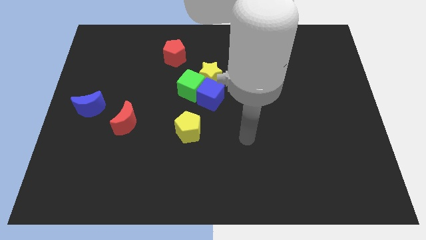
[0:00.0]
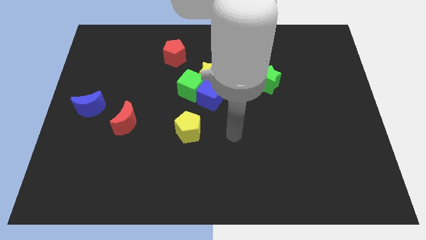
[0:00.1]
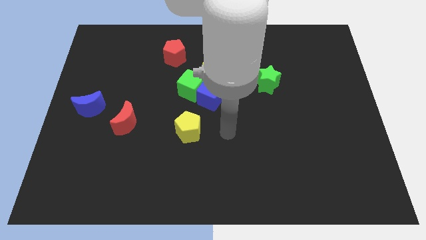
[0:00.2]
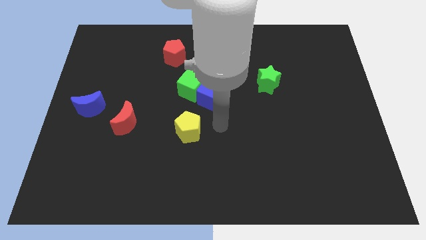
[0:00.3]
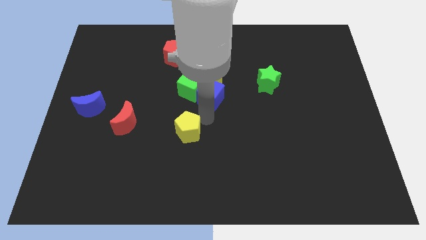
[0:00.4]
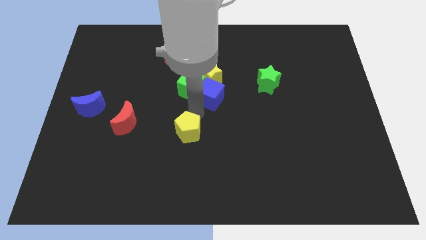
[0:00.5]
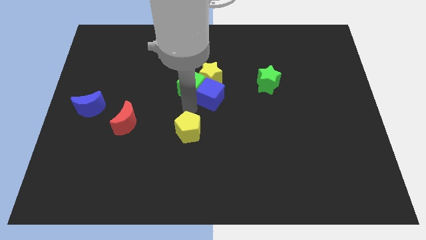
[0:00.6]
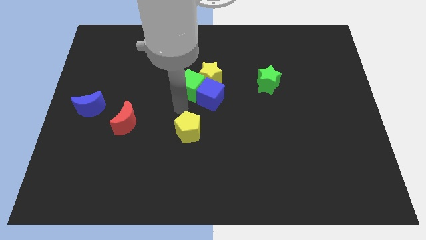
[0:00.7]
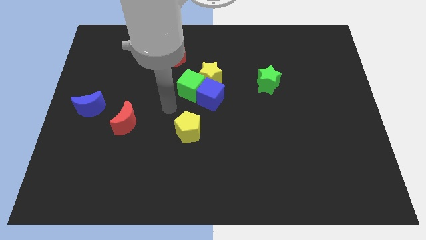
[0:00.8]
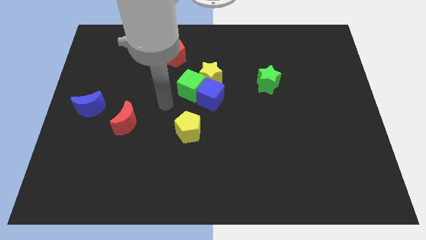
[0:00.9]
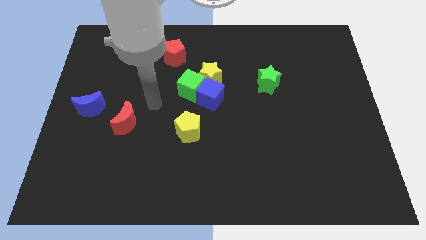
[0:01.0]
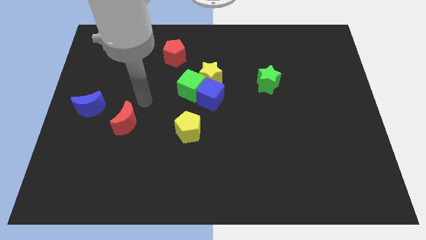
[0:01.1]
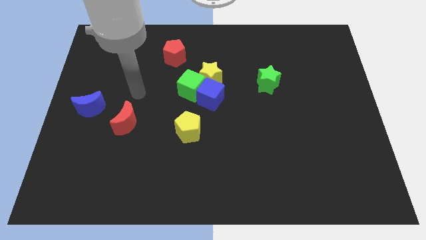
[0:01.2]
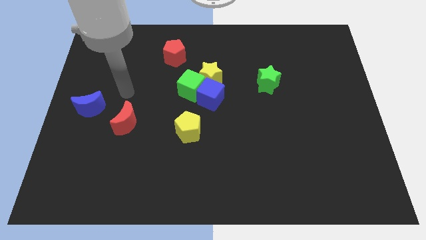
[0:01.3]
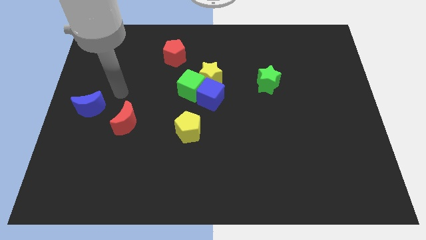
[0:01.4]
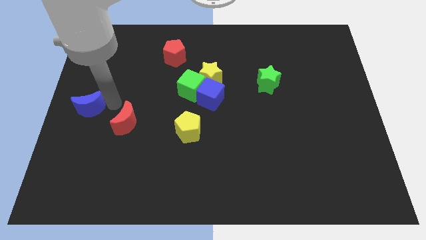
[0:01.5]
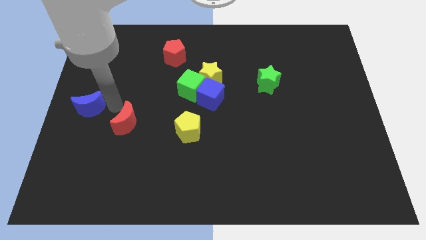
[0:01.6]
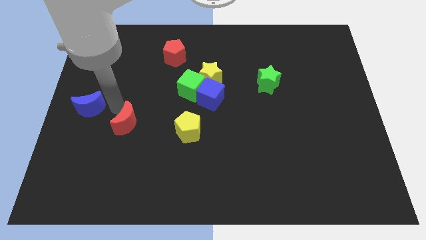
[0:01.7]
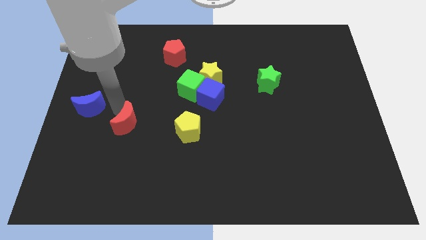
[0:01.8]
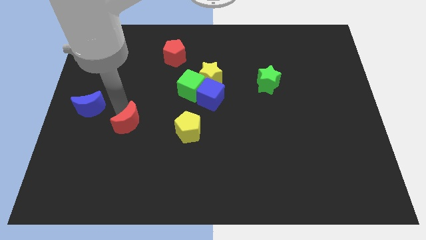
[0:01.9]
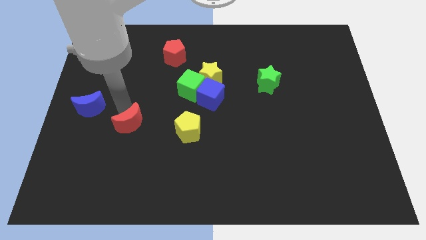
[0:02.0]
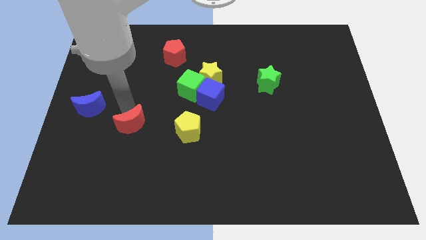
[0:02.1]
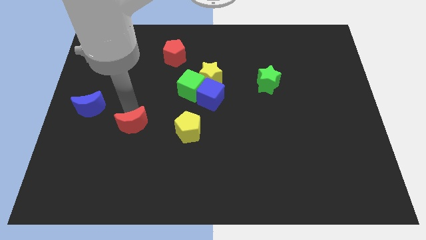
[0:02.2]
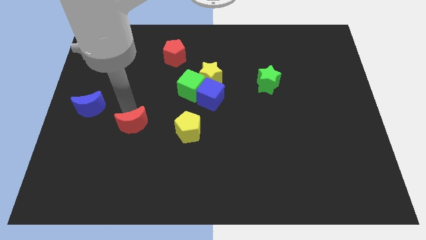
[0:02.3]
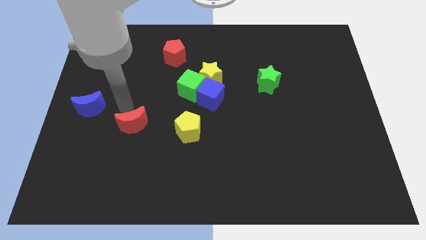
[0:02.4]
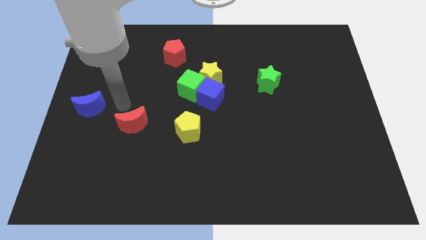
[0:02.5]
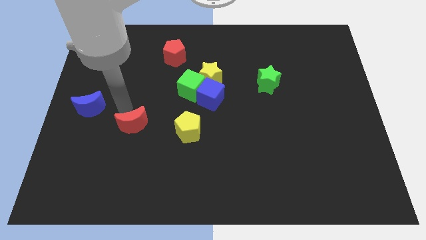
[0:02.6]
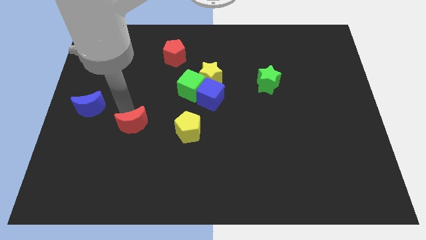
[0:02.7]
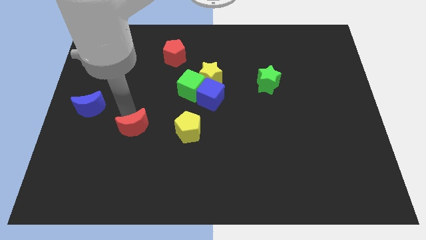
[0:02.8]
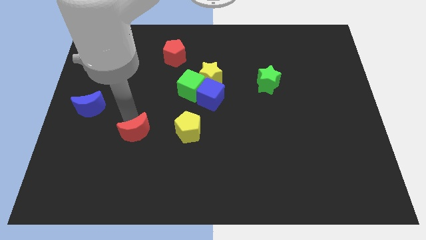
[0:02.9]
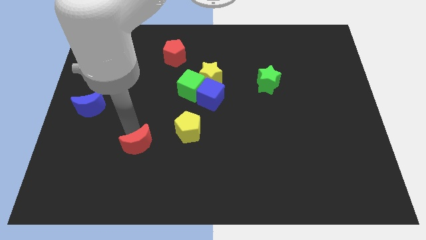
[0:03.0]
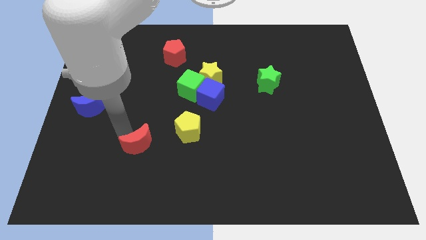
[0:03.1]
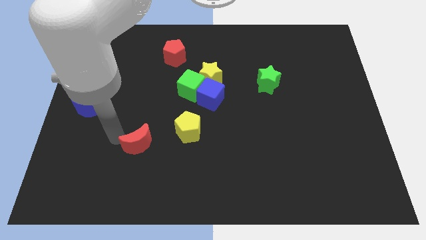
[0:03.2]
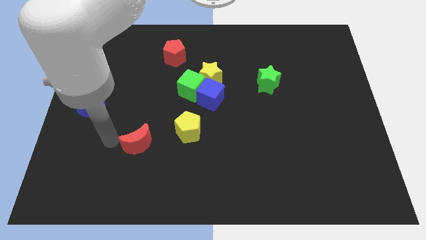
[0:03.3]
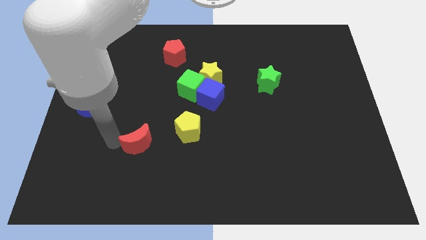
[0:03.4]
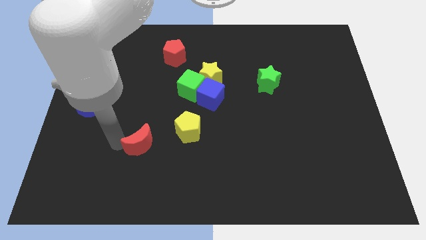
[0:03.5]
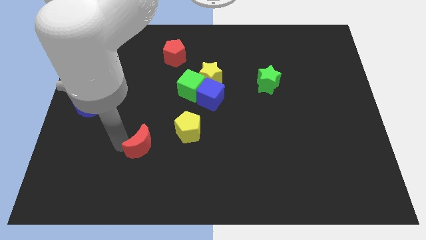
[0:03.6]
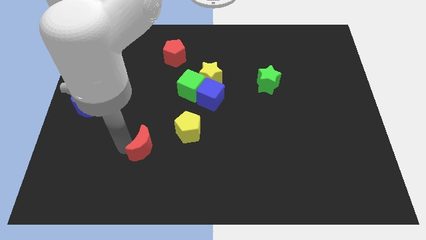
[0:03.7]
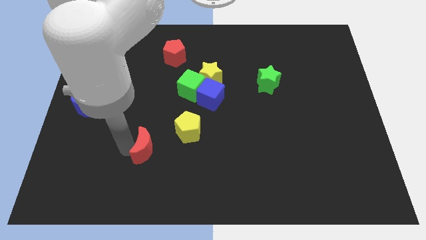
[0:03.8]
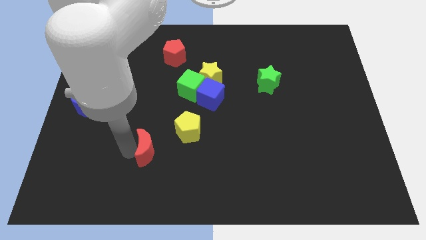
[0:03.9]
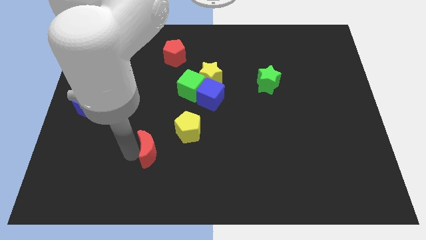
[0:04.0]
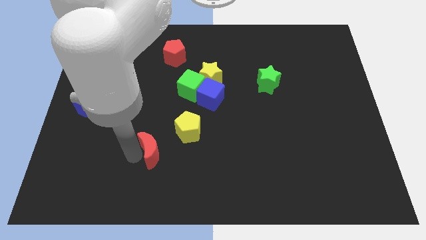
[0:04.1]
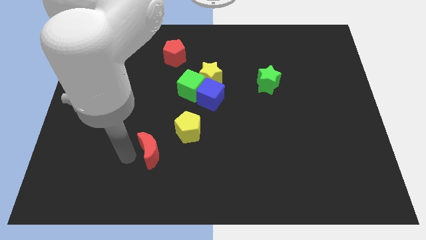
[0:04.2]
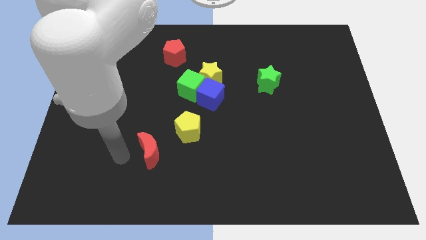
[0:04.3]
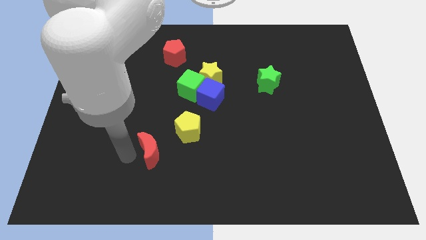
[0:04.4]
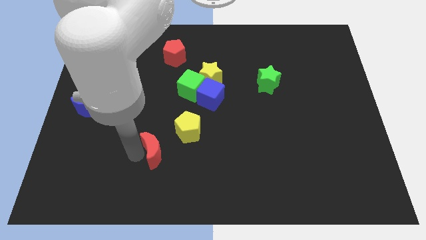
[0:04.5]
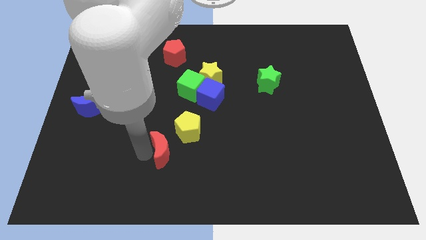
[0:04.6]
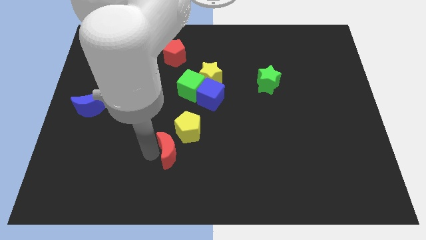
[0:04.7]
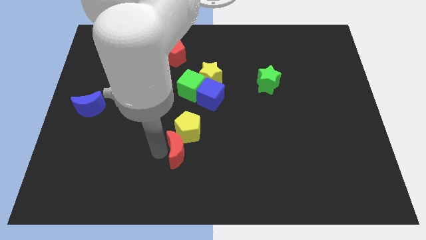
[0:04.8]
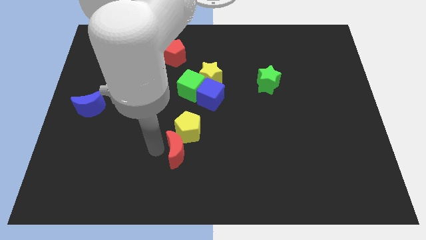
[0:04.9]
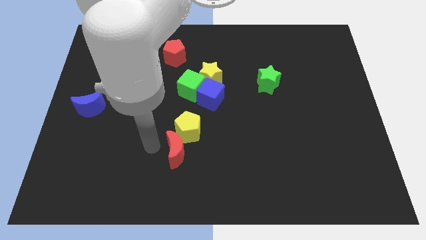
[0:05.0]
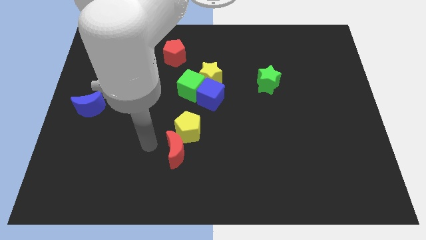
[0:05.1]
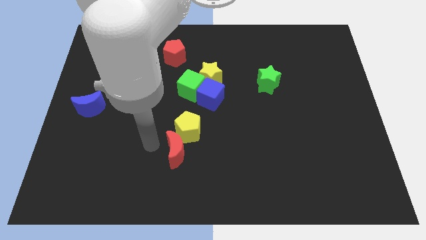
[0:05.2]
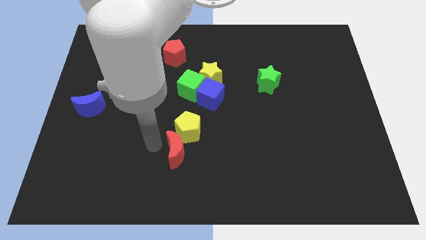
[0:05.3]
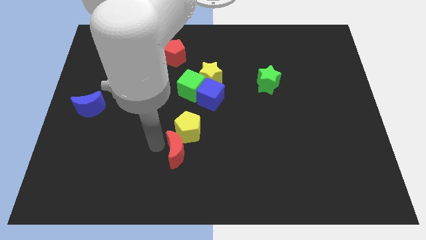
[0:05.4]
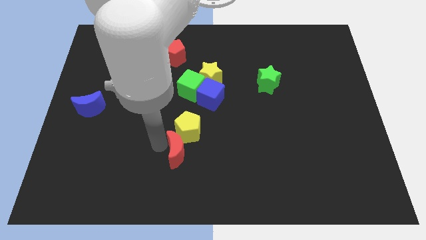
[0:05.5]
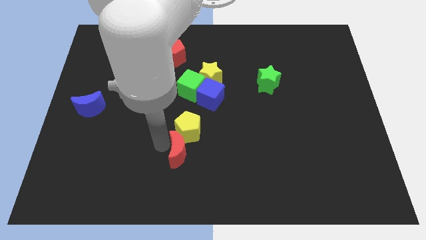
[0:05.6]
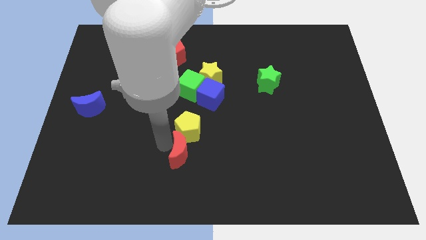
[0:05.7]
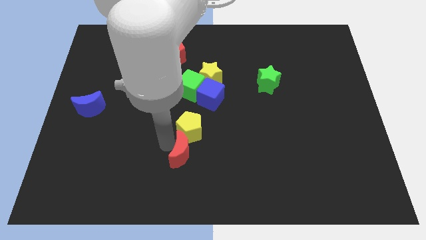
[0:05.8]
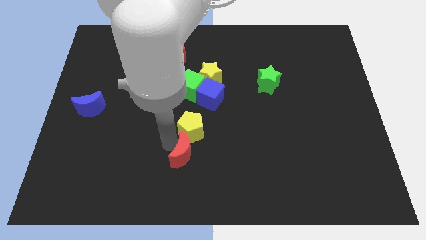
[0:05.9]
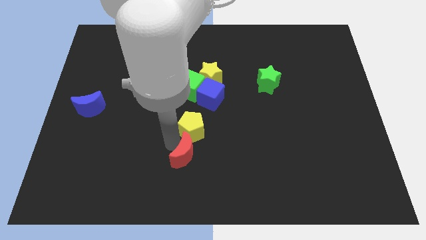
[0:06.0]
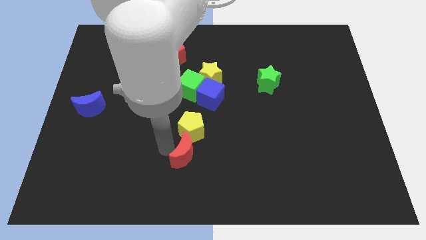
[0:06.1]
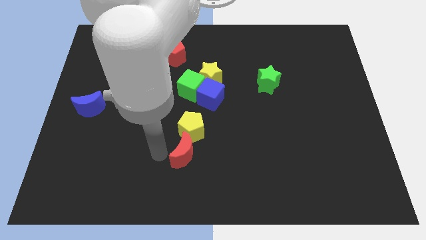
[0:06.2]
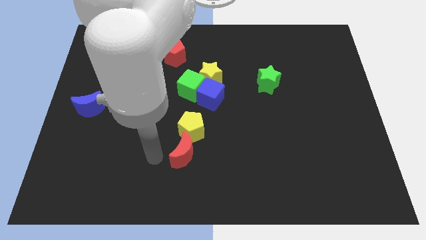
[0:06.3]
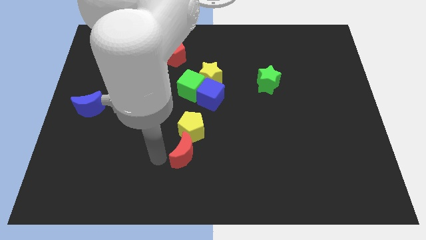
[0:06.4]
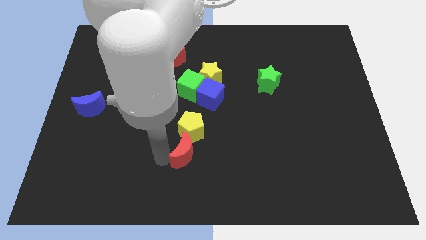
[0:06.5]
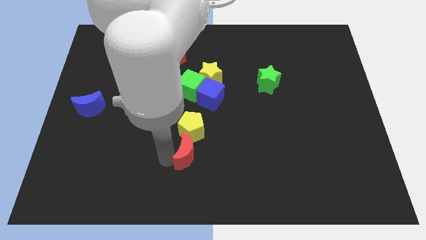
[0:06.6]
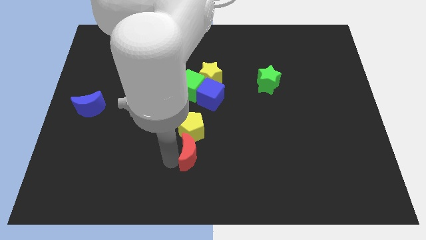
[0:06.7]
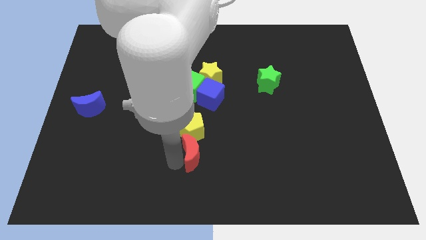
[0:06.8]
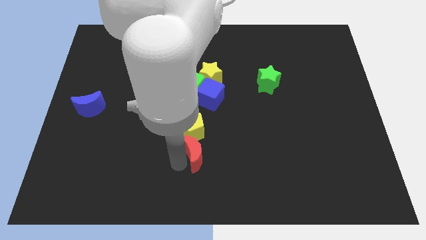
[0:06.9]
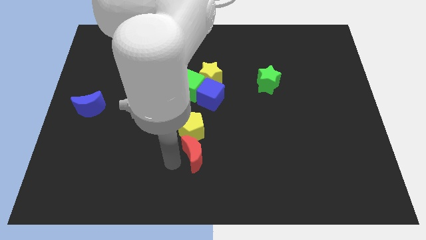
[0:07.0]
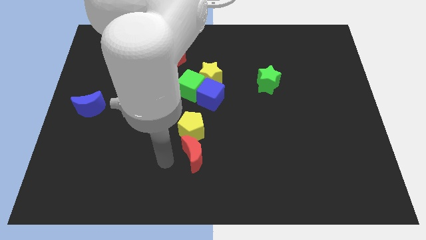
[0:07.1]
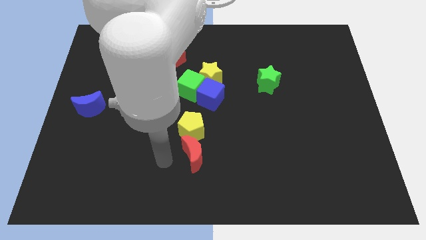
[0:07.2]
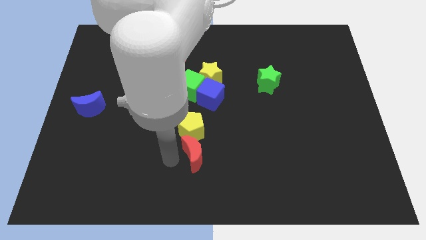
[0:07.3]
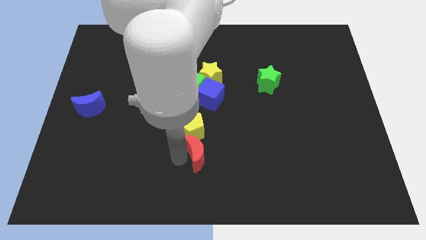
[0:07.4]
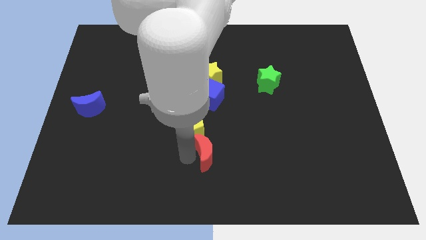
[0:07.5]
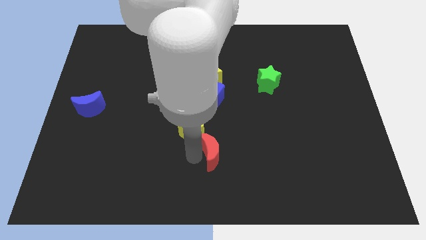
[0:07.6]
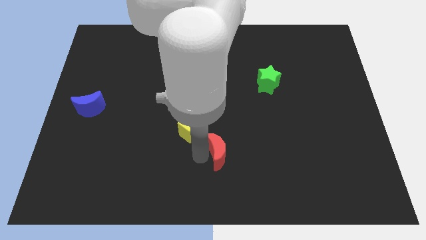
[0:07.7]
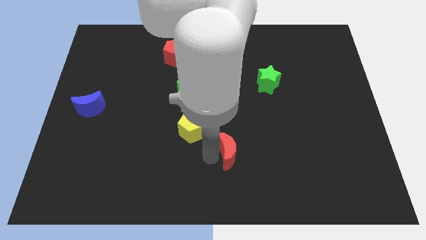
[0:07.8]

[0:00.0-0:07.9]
slide the red moon right
